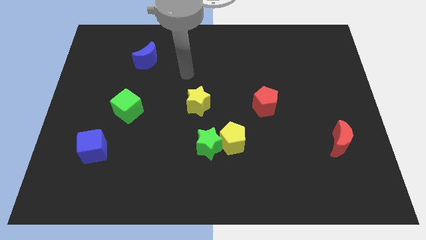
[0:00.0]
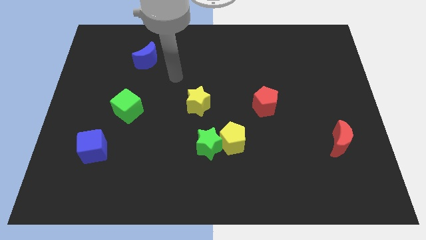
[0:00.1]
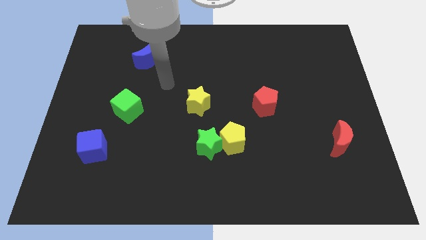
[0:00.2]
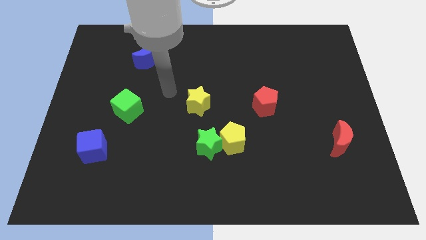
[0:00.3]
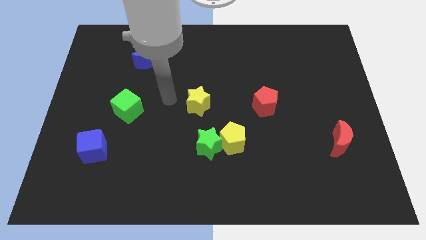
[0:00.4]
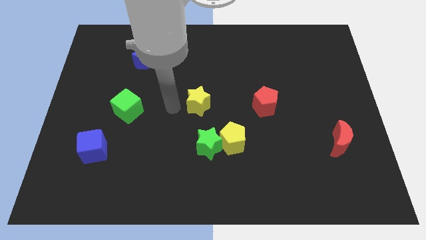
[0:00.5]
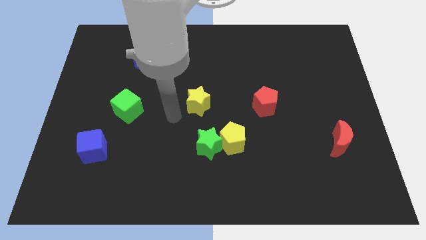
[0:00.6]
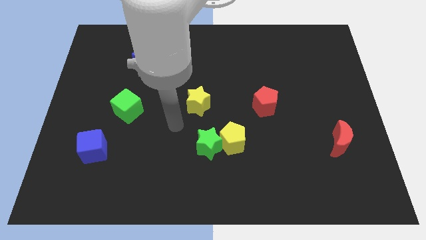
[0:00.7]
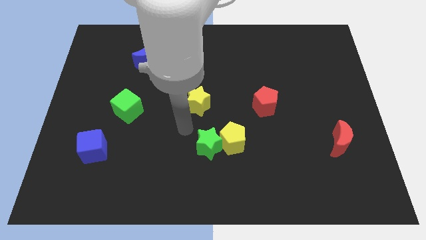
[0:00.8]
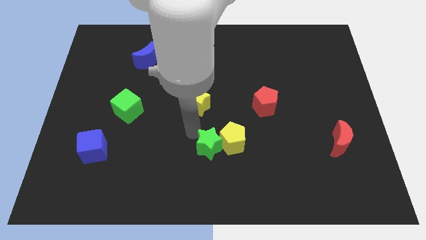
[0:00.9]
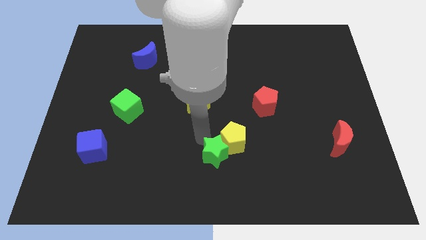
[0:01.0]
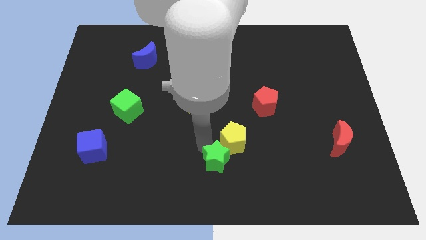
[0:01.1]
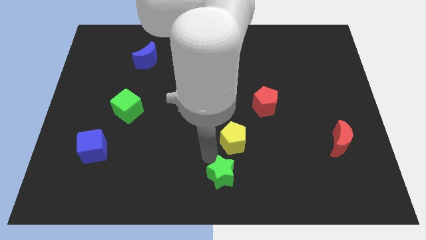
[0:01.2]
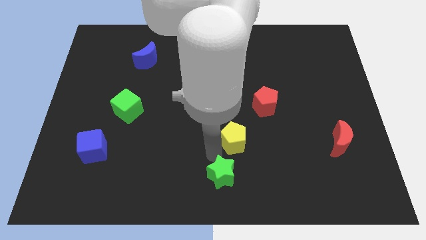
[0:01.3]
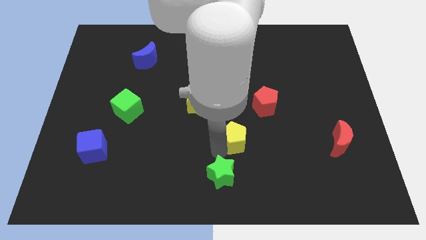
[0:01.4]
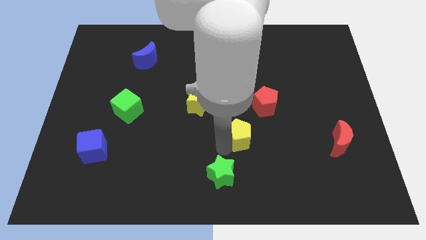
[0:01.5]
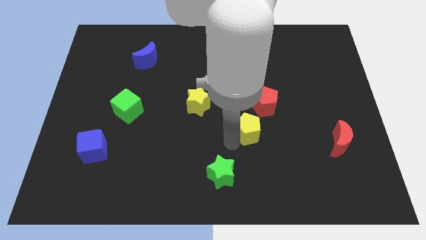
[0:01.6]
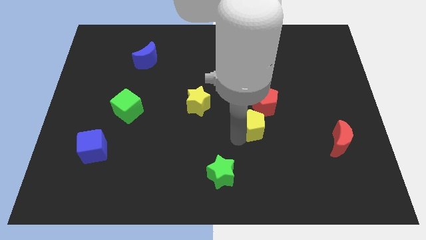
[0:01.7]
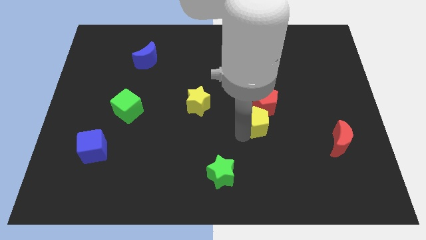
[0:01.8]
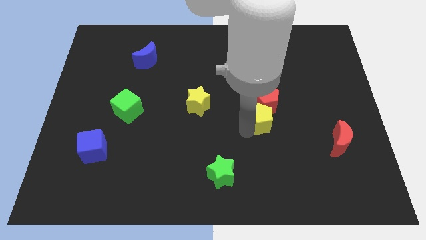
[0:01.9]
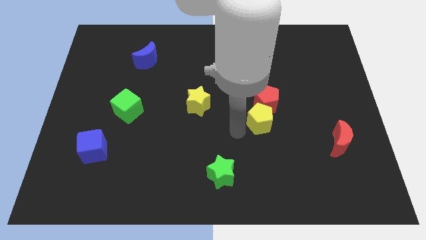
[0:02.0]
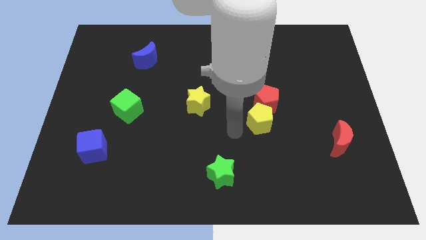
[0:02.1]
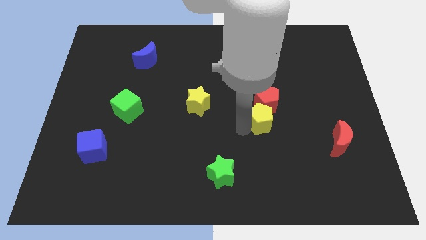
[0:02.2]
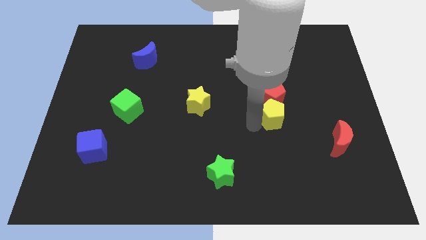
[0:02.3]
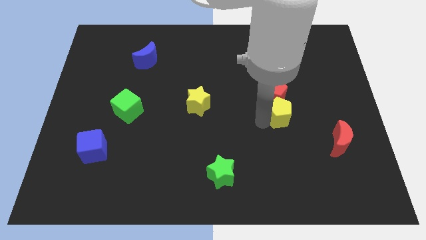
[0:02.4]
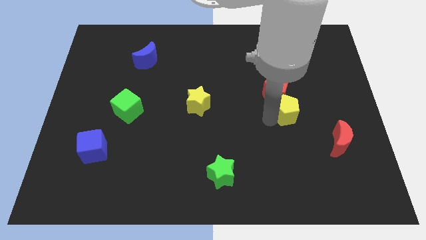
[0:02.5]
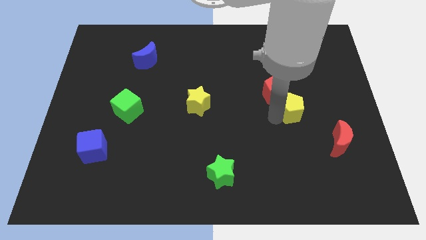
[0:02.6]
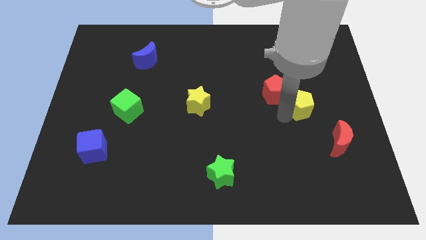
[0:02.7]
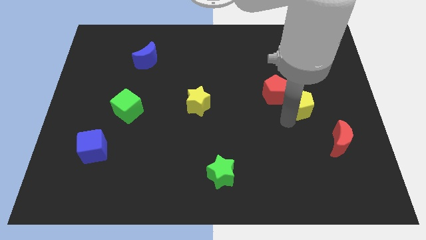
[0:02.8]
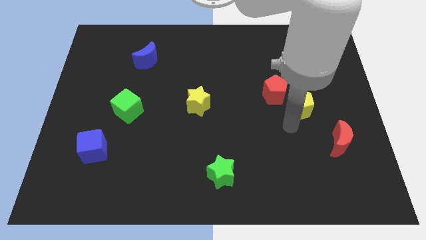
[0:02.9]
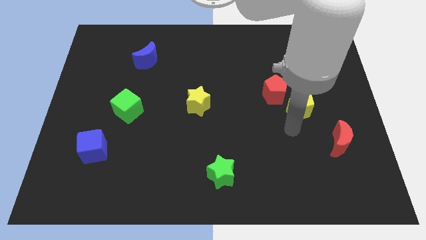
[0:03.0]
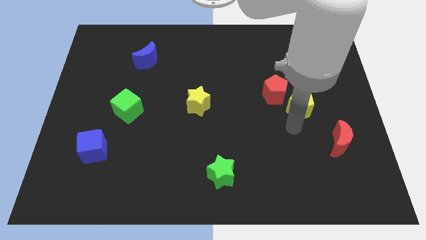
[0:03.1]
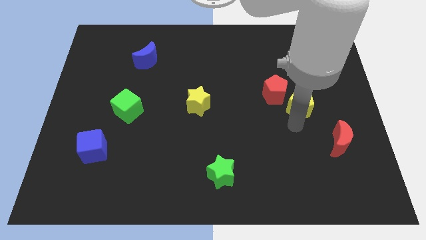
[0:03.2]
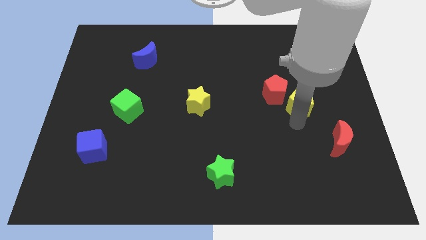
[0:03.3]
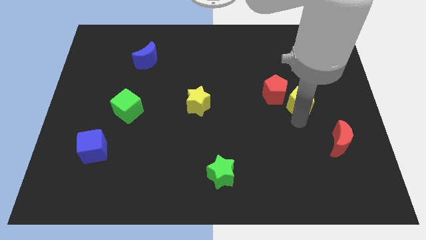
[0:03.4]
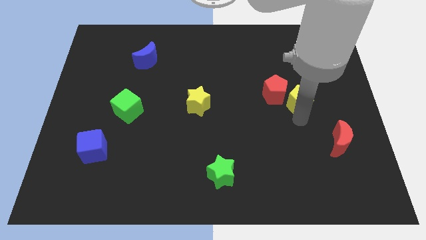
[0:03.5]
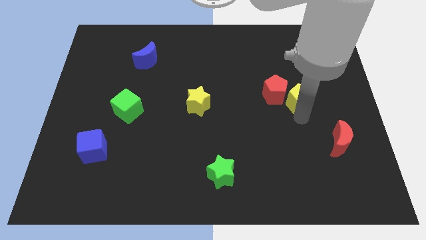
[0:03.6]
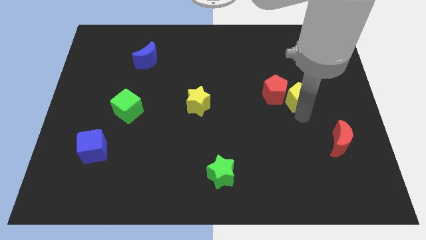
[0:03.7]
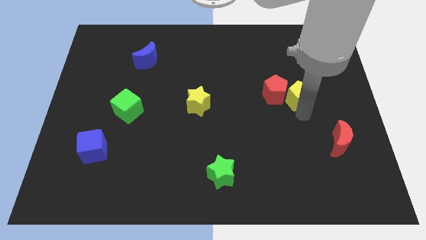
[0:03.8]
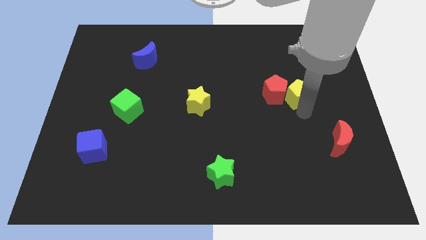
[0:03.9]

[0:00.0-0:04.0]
slide the yellow pentagon up and then right

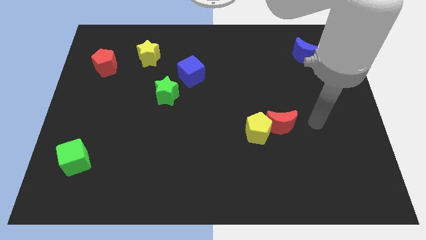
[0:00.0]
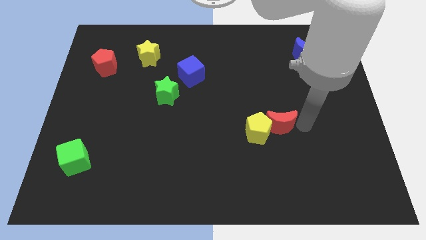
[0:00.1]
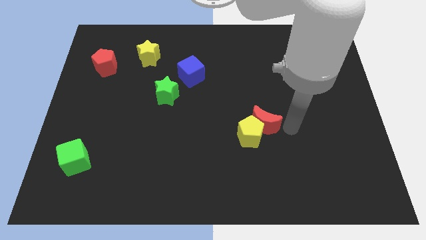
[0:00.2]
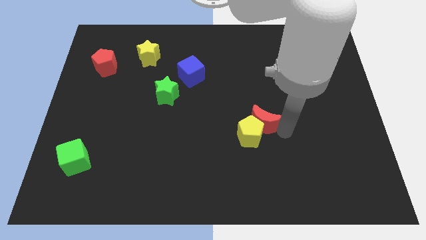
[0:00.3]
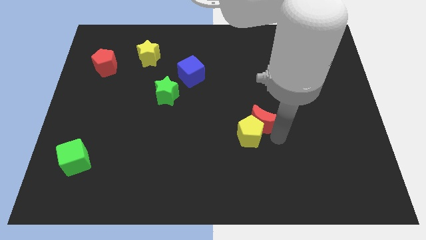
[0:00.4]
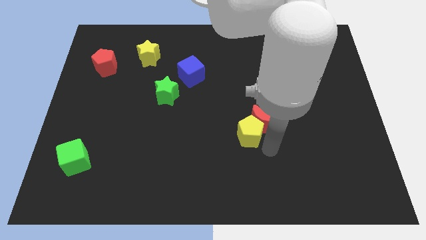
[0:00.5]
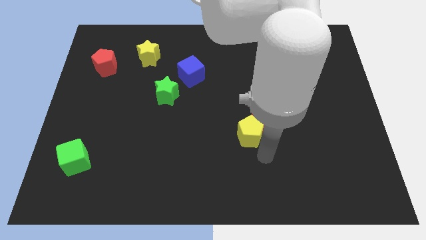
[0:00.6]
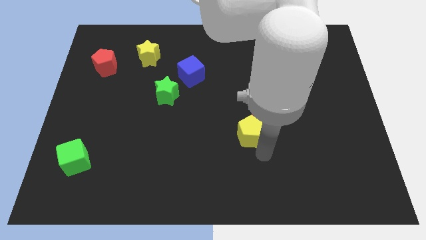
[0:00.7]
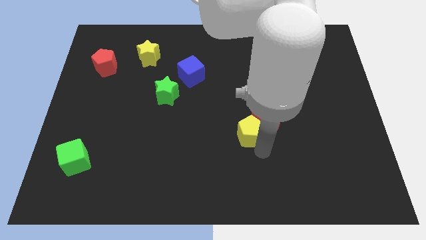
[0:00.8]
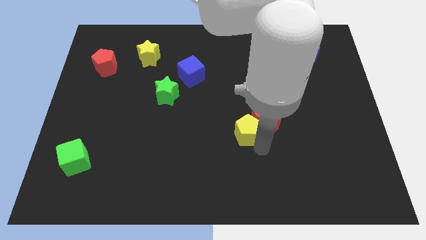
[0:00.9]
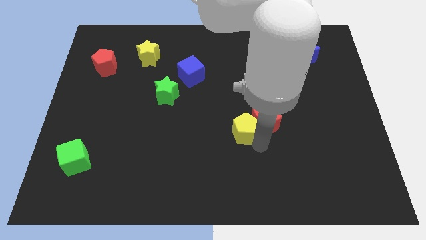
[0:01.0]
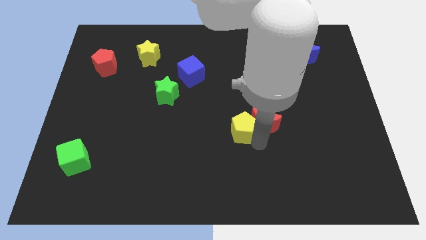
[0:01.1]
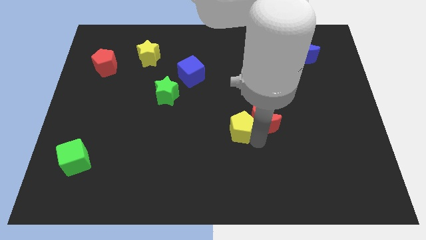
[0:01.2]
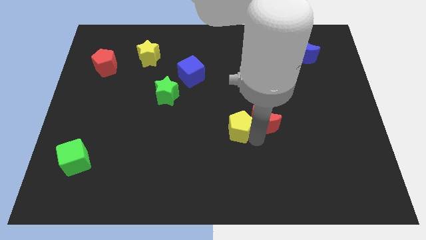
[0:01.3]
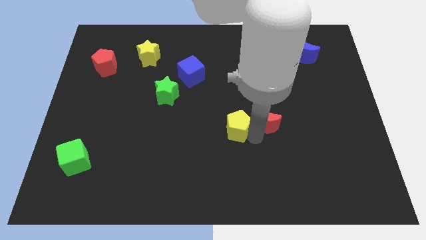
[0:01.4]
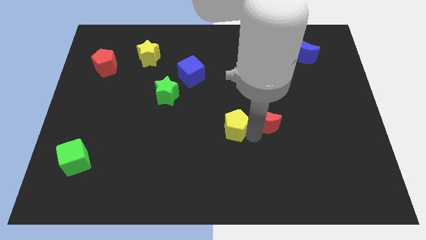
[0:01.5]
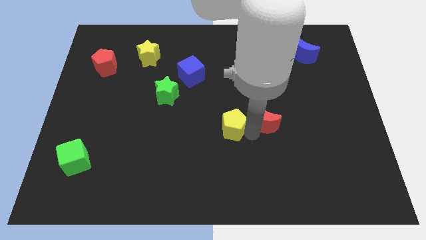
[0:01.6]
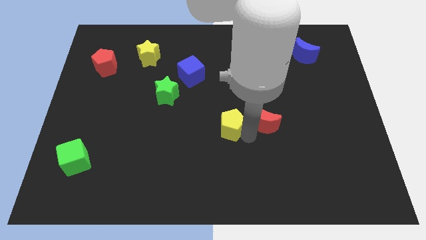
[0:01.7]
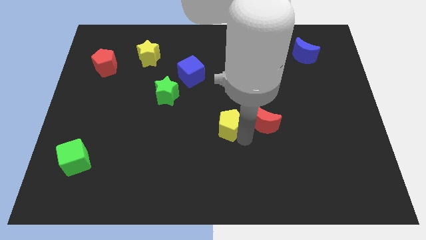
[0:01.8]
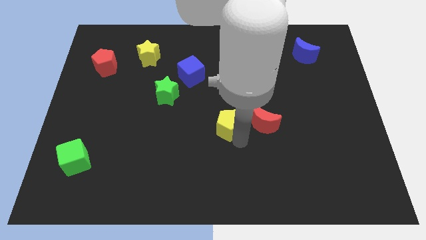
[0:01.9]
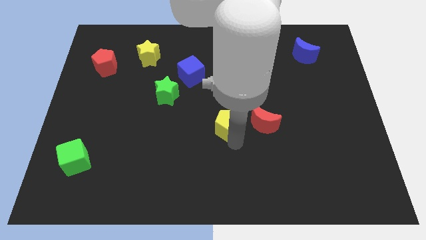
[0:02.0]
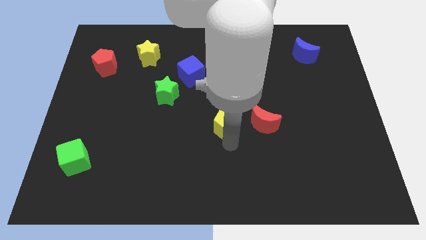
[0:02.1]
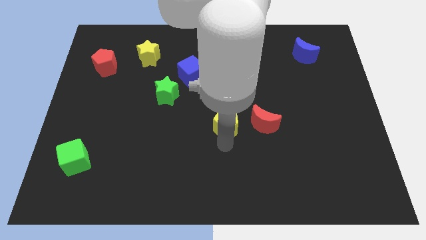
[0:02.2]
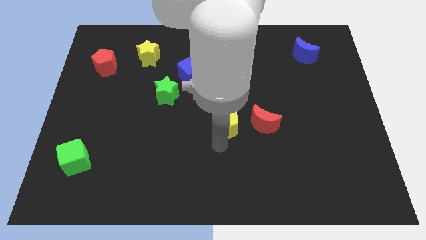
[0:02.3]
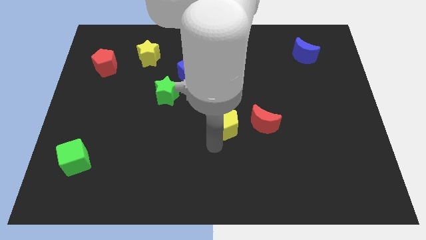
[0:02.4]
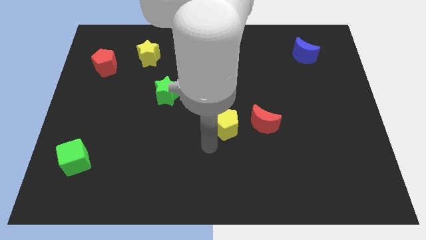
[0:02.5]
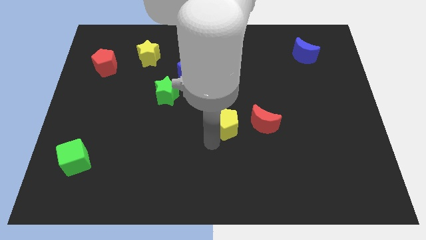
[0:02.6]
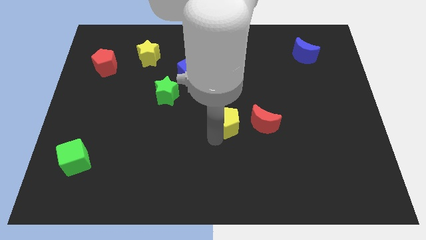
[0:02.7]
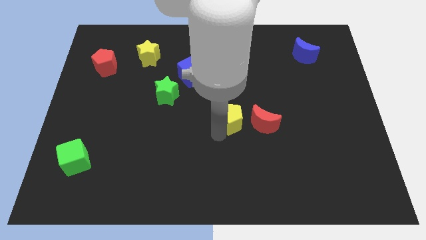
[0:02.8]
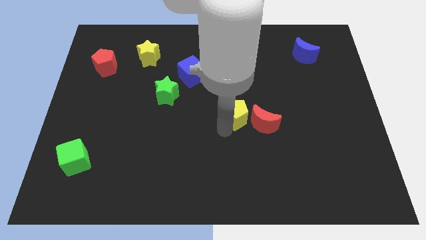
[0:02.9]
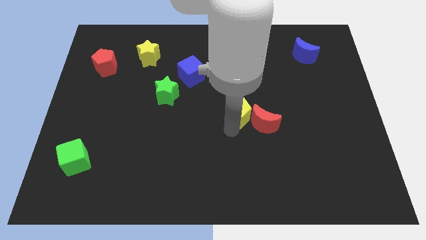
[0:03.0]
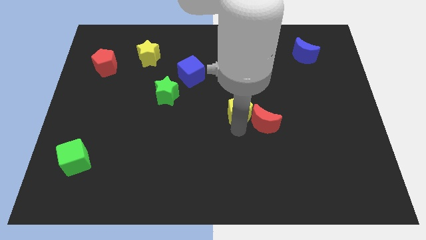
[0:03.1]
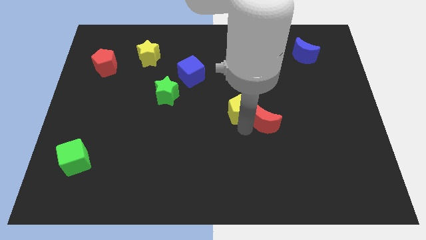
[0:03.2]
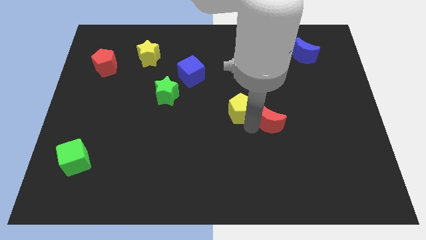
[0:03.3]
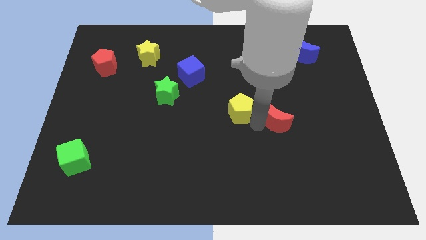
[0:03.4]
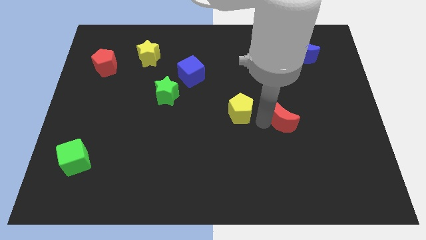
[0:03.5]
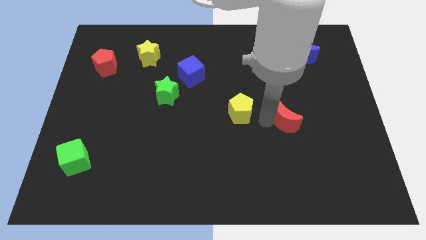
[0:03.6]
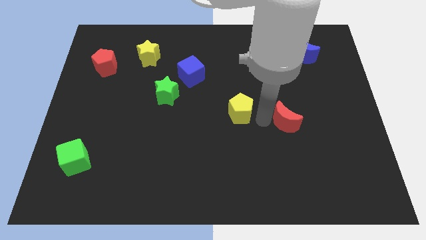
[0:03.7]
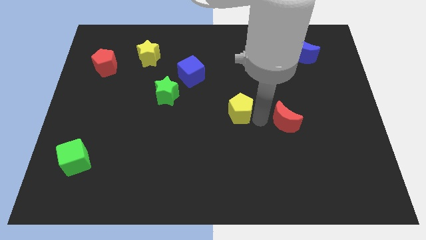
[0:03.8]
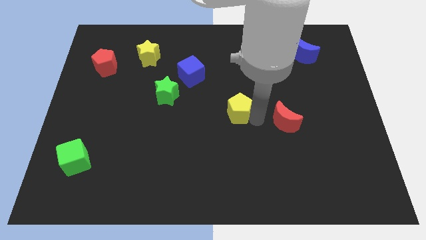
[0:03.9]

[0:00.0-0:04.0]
move the yellow pentagon slightly up and to the left

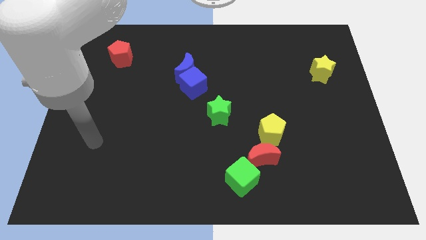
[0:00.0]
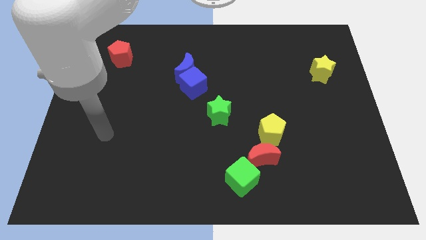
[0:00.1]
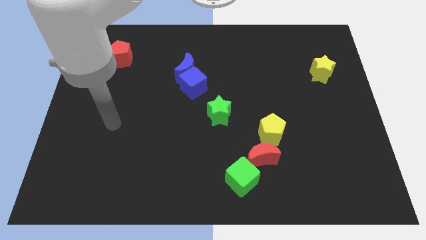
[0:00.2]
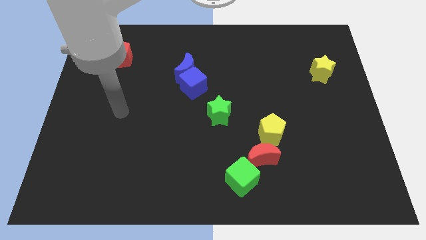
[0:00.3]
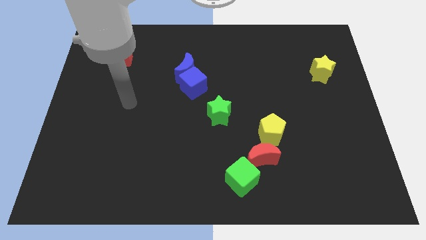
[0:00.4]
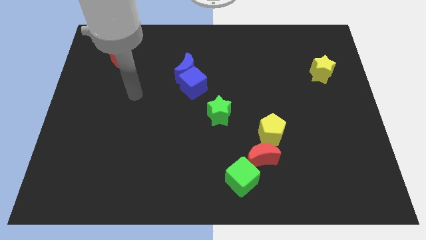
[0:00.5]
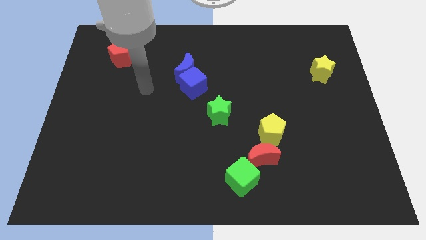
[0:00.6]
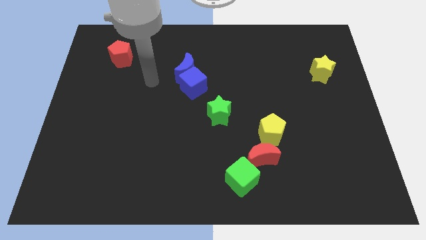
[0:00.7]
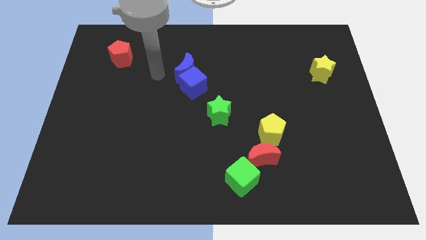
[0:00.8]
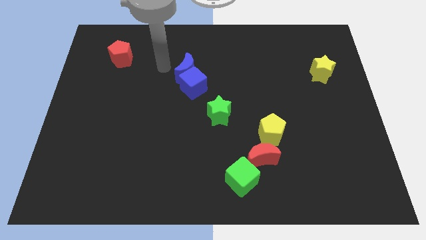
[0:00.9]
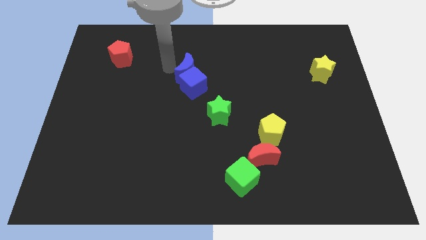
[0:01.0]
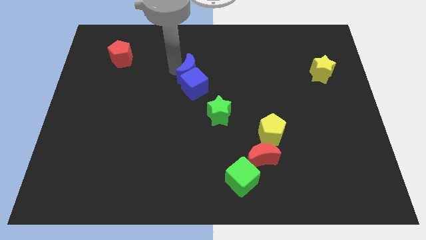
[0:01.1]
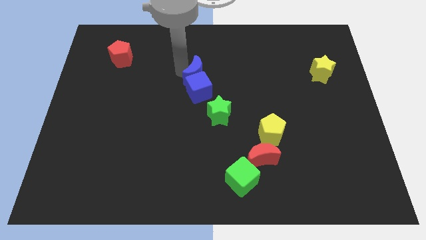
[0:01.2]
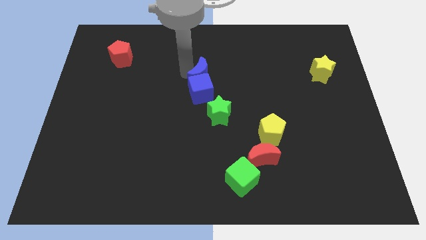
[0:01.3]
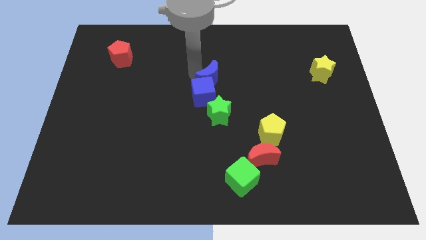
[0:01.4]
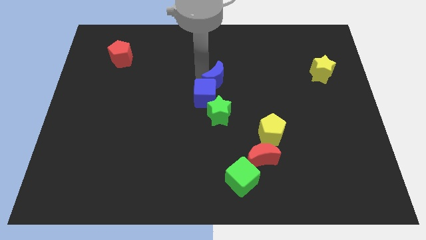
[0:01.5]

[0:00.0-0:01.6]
slide the blue moon a little bit down and then right
